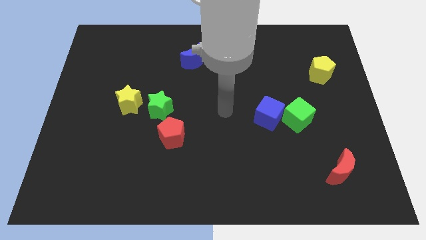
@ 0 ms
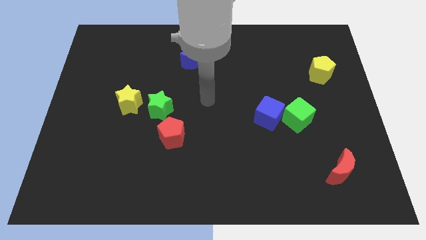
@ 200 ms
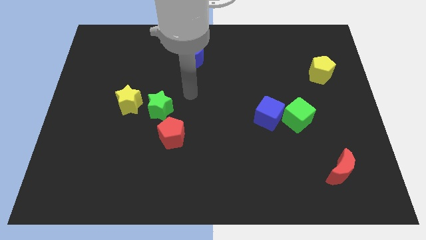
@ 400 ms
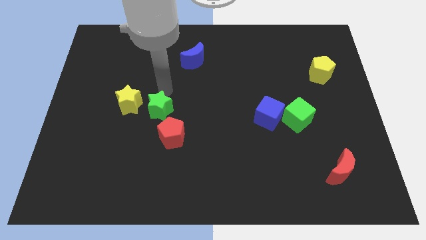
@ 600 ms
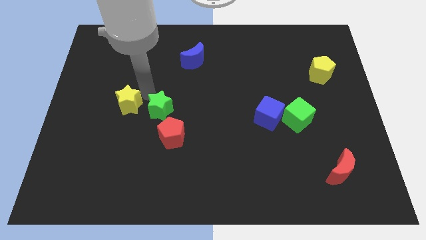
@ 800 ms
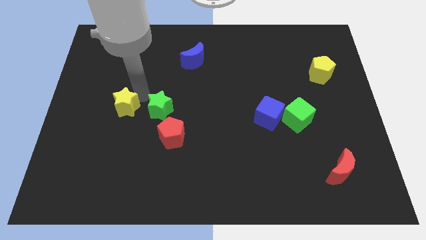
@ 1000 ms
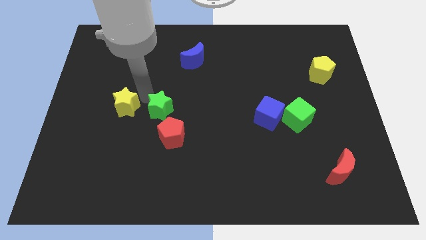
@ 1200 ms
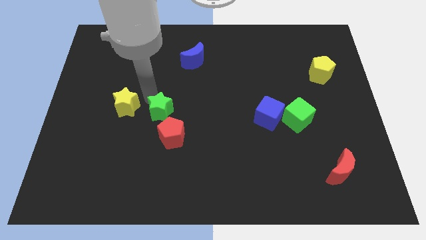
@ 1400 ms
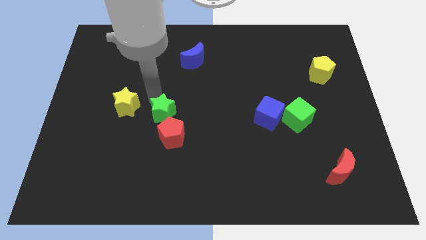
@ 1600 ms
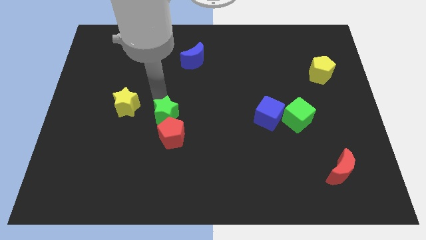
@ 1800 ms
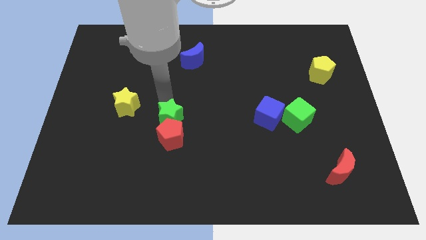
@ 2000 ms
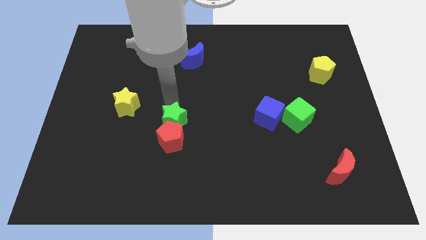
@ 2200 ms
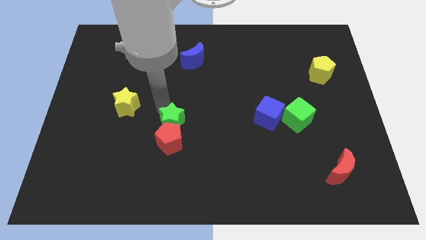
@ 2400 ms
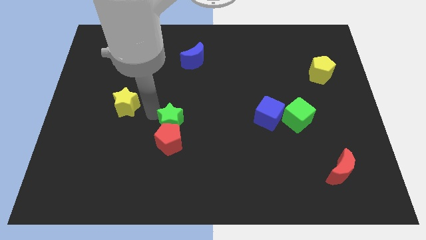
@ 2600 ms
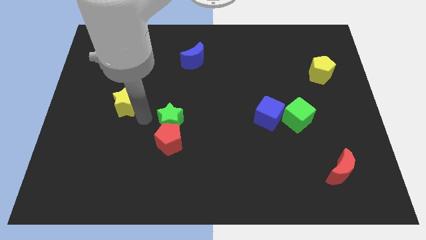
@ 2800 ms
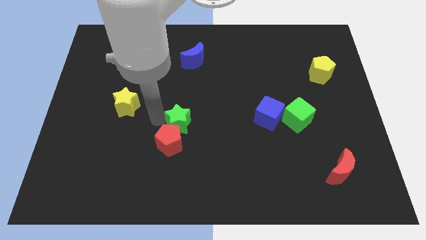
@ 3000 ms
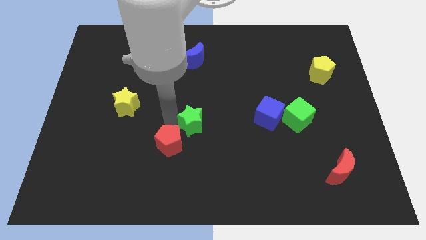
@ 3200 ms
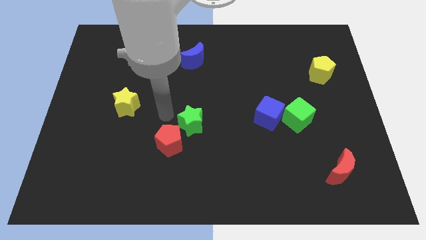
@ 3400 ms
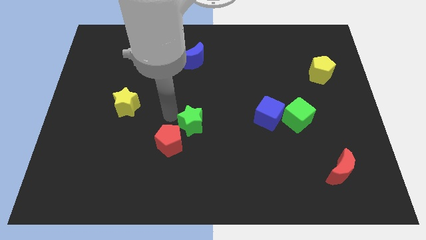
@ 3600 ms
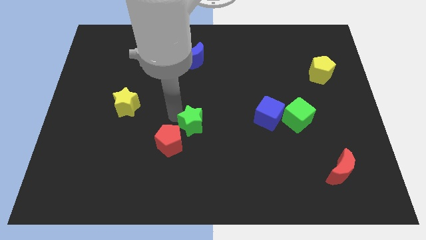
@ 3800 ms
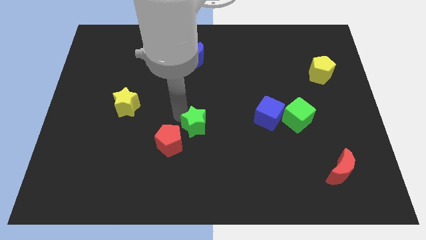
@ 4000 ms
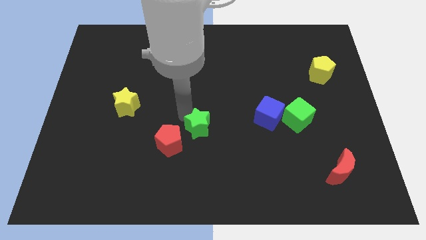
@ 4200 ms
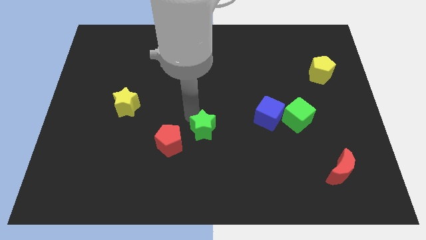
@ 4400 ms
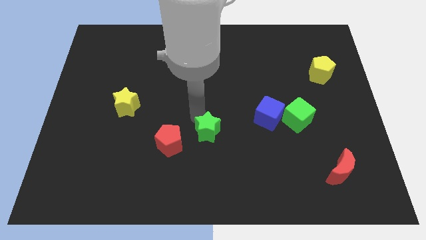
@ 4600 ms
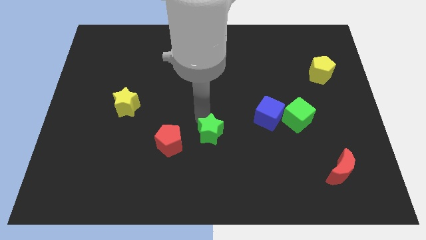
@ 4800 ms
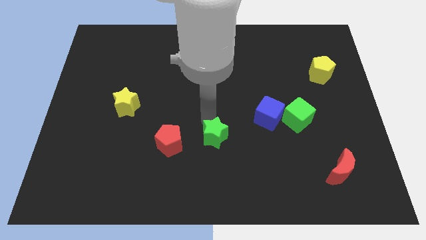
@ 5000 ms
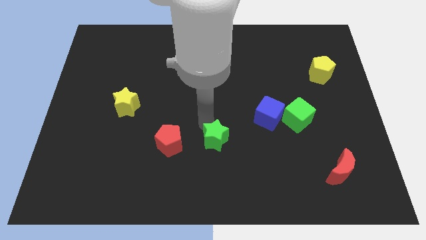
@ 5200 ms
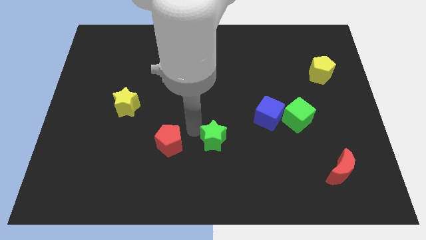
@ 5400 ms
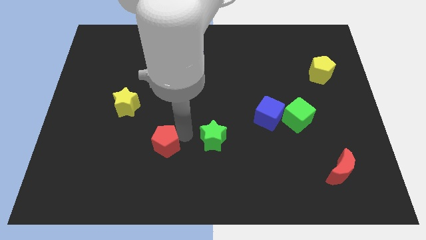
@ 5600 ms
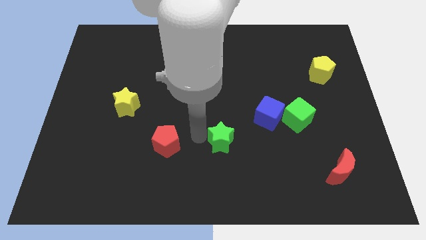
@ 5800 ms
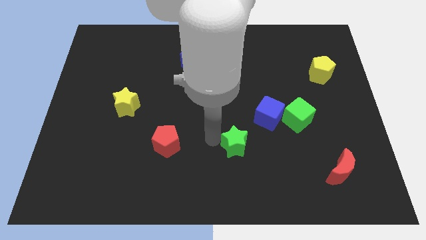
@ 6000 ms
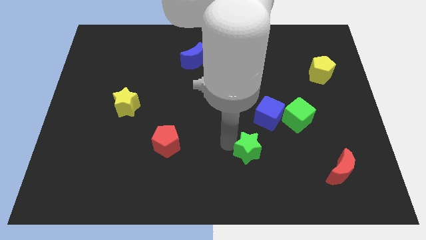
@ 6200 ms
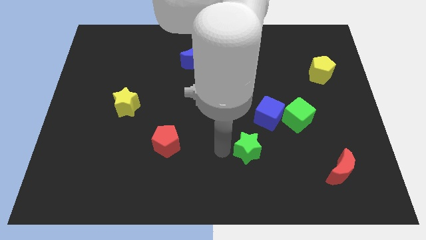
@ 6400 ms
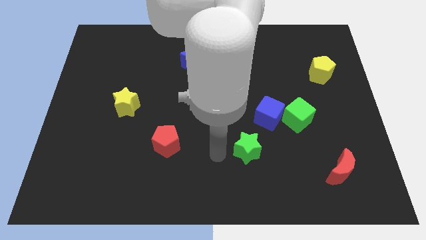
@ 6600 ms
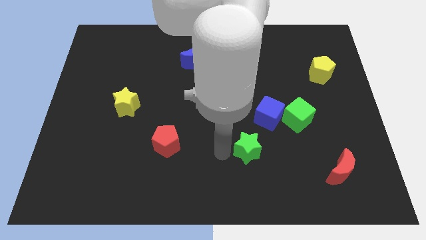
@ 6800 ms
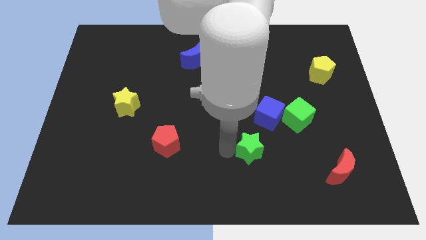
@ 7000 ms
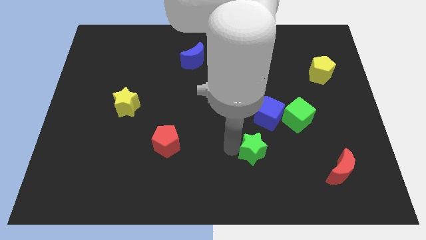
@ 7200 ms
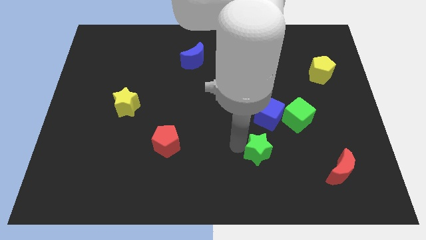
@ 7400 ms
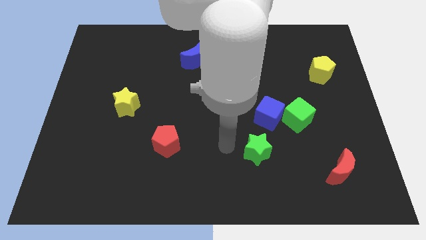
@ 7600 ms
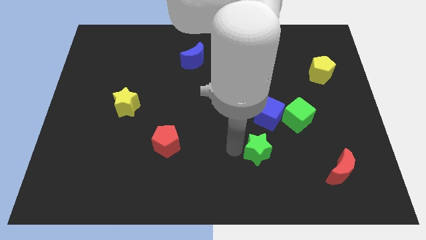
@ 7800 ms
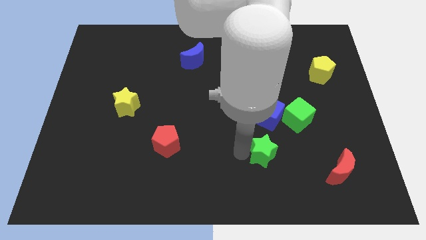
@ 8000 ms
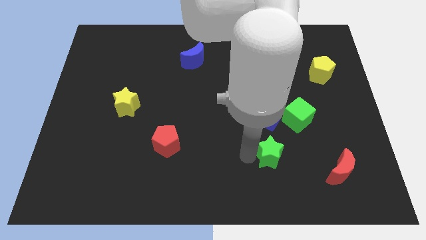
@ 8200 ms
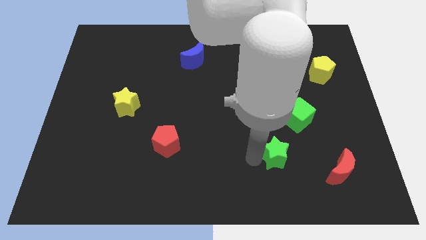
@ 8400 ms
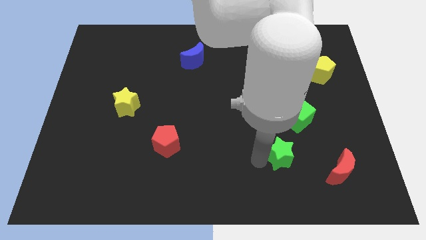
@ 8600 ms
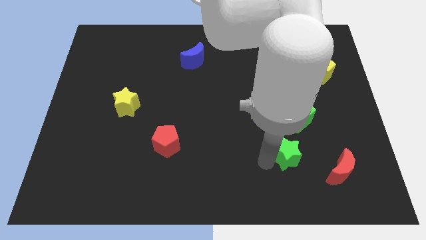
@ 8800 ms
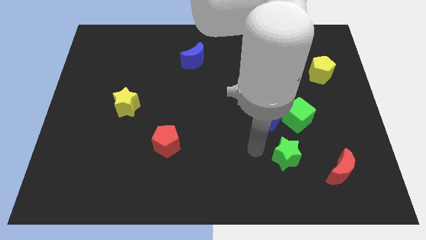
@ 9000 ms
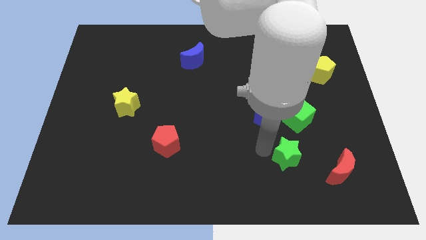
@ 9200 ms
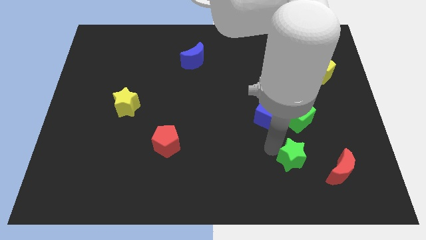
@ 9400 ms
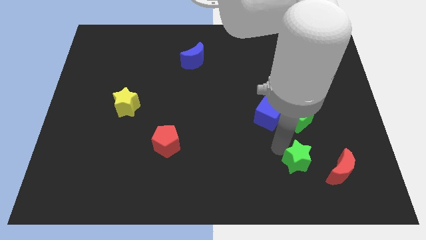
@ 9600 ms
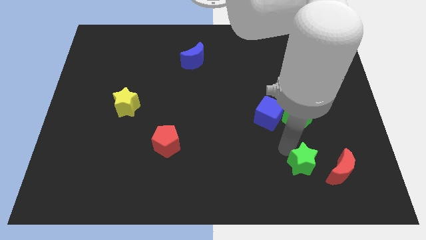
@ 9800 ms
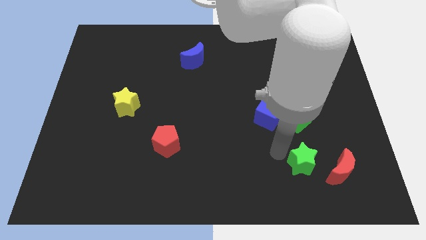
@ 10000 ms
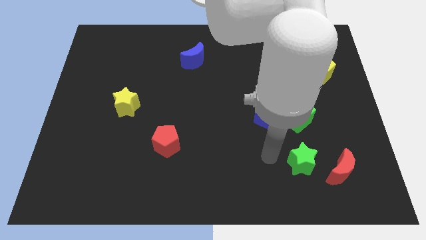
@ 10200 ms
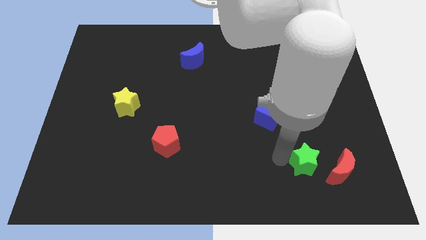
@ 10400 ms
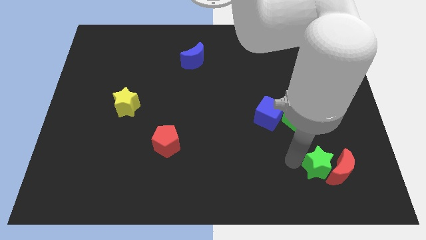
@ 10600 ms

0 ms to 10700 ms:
move the green star next to the red moon

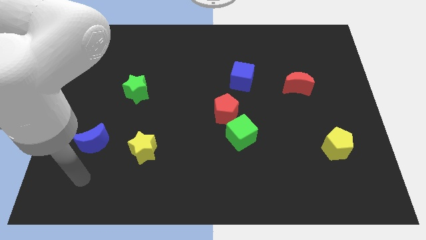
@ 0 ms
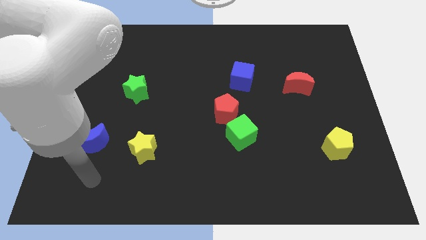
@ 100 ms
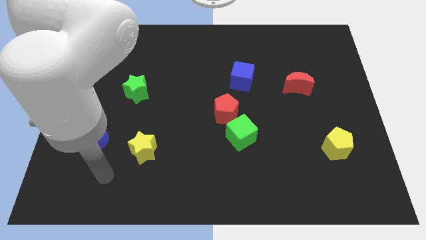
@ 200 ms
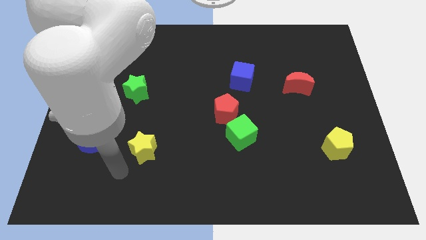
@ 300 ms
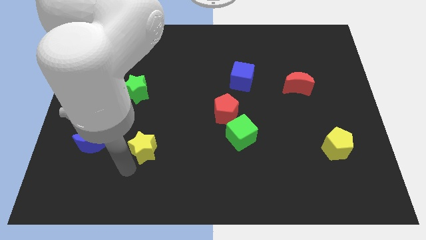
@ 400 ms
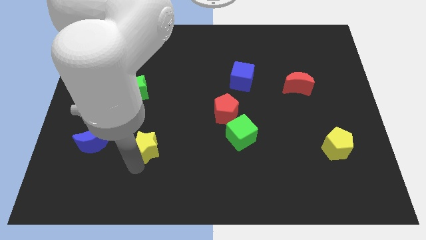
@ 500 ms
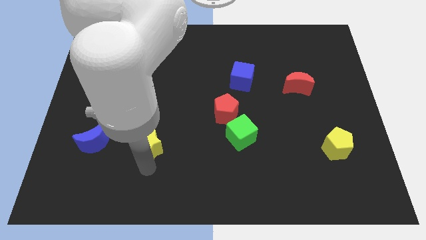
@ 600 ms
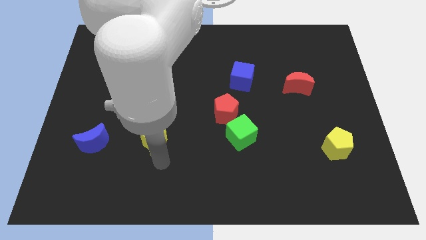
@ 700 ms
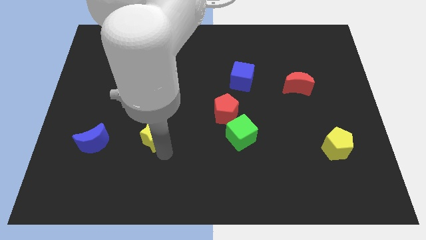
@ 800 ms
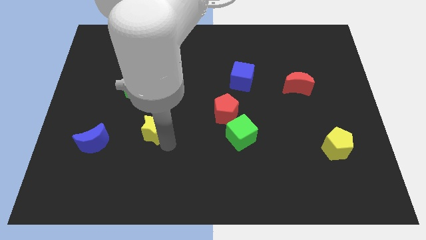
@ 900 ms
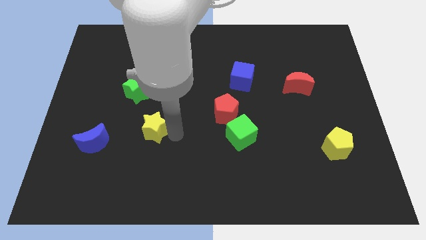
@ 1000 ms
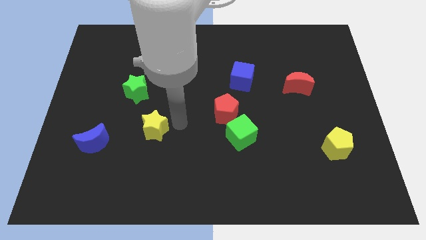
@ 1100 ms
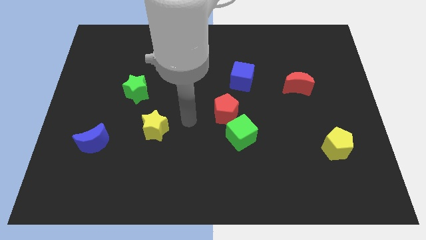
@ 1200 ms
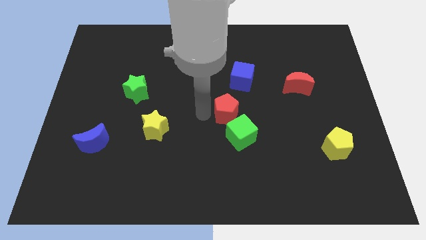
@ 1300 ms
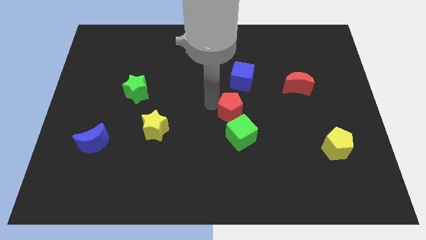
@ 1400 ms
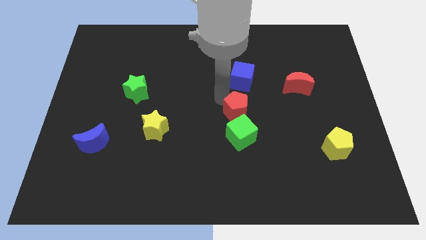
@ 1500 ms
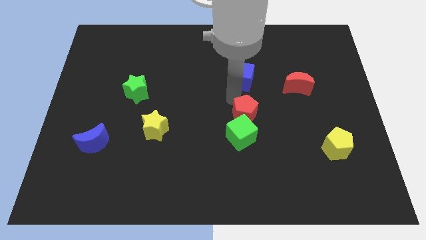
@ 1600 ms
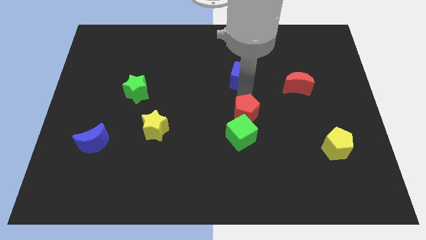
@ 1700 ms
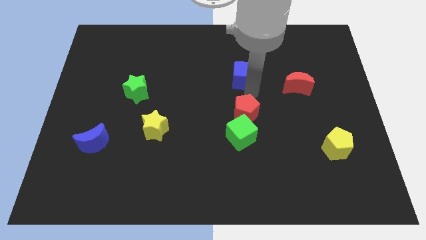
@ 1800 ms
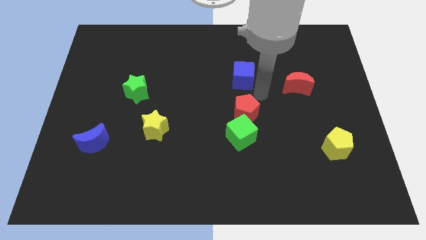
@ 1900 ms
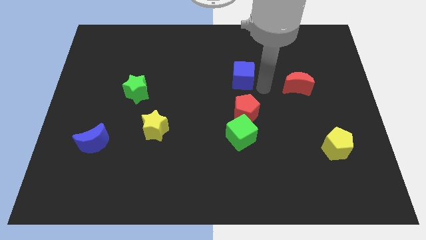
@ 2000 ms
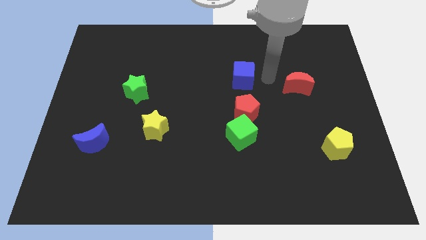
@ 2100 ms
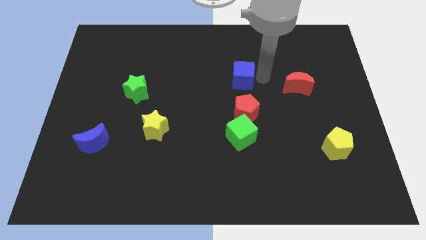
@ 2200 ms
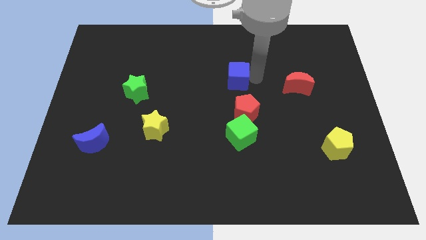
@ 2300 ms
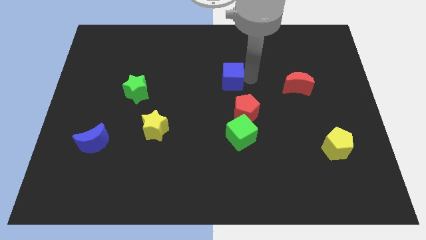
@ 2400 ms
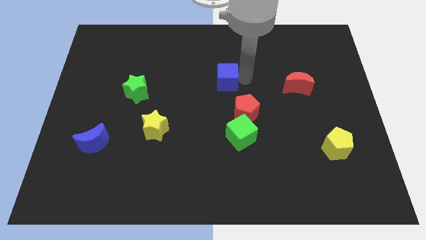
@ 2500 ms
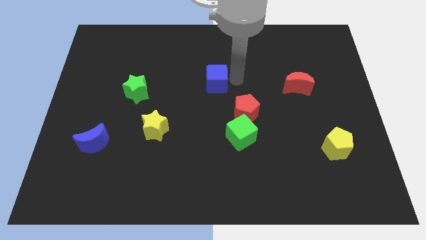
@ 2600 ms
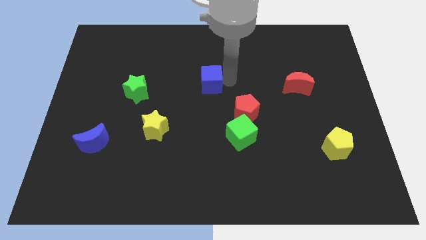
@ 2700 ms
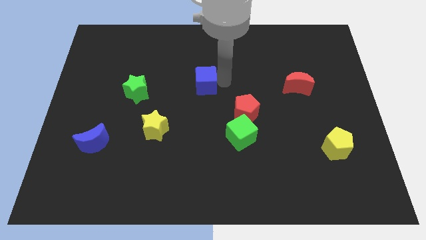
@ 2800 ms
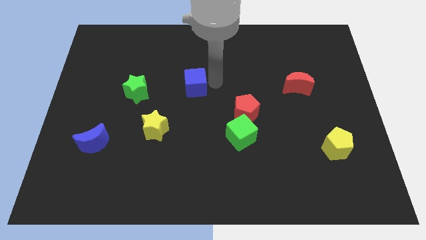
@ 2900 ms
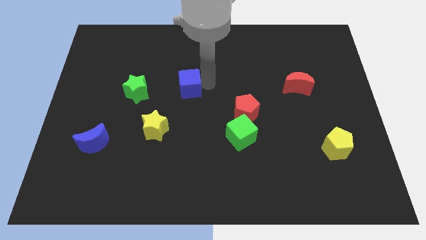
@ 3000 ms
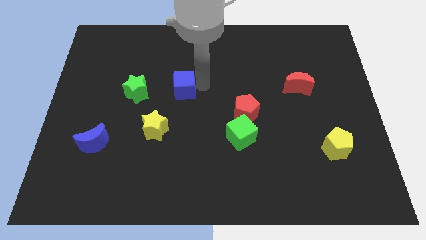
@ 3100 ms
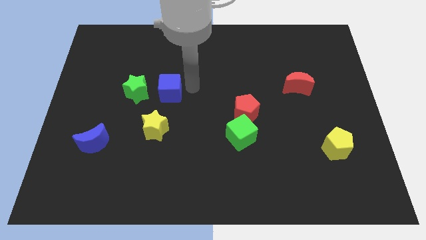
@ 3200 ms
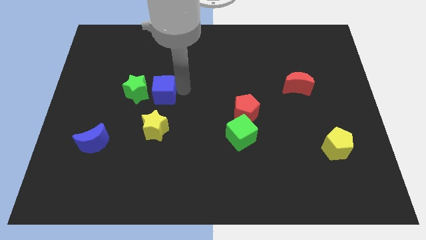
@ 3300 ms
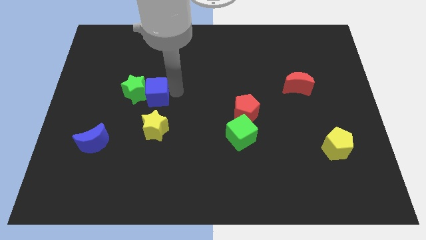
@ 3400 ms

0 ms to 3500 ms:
push the blue cube towards the green star
